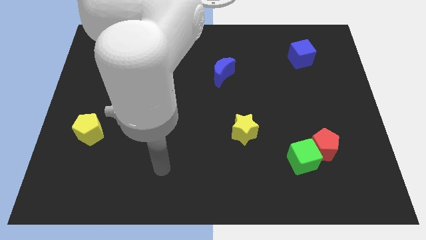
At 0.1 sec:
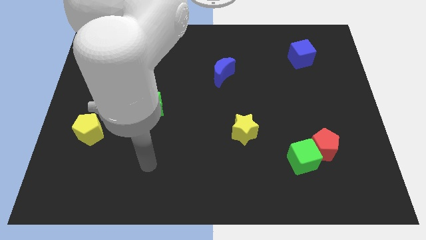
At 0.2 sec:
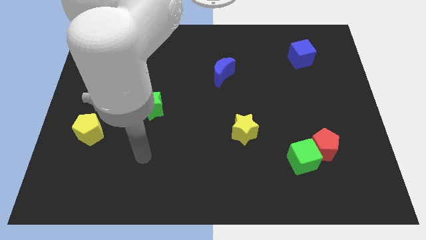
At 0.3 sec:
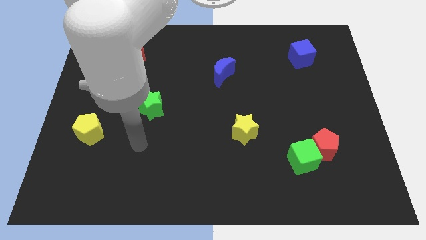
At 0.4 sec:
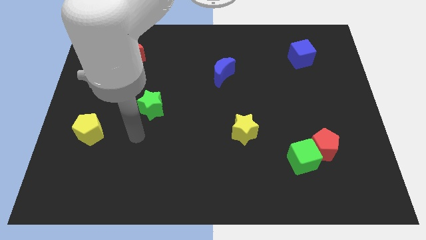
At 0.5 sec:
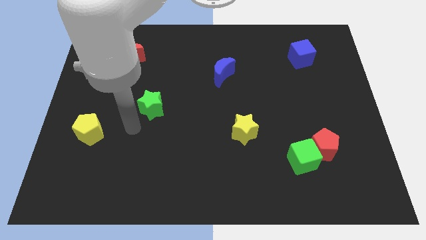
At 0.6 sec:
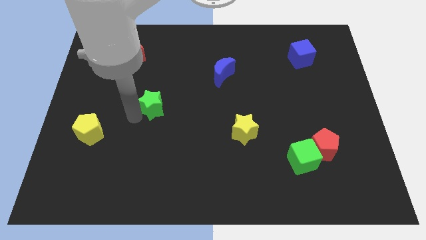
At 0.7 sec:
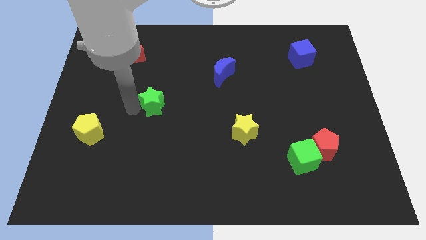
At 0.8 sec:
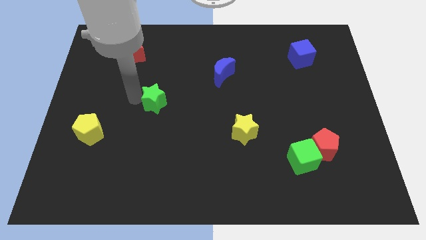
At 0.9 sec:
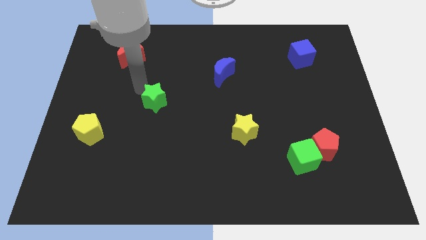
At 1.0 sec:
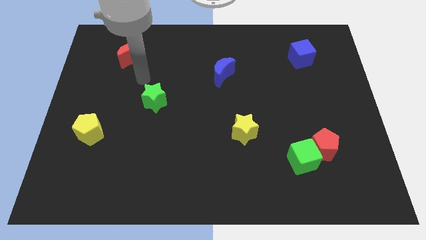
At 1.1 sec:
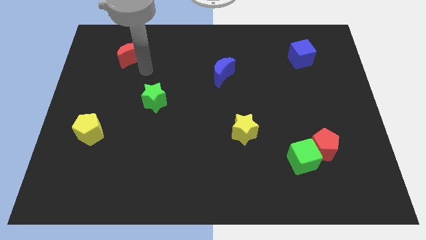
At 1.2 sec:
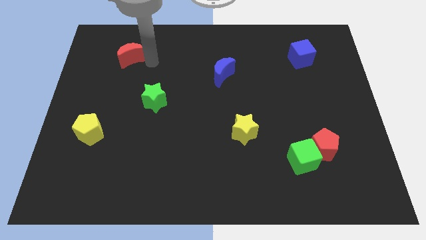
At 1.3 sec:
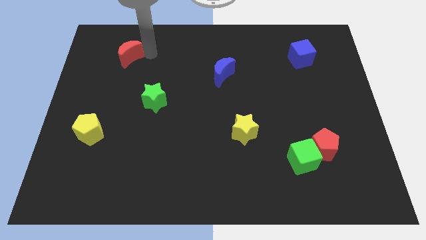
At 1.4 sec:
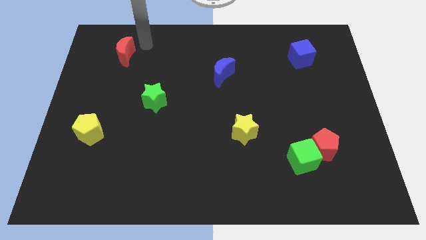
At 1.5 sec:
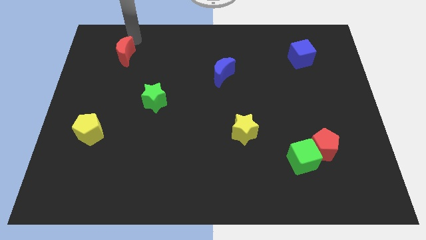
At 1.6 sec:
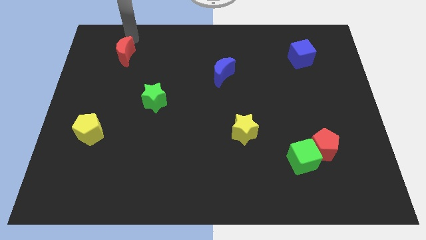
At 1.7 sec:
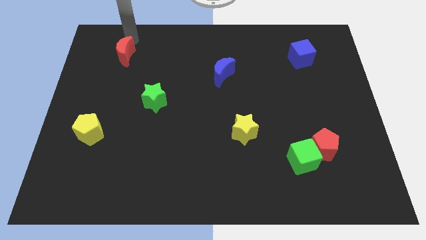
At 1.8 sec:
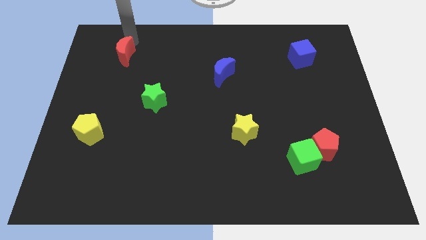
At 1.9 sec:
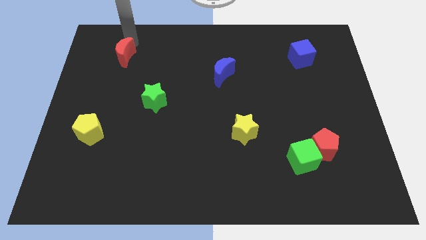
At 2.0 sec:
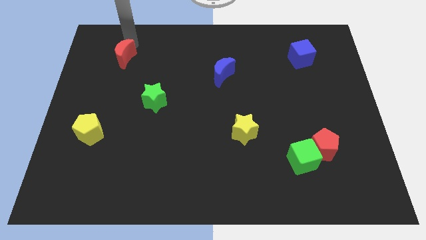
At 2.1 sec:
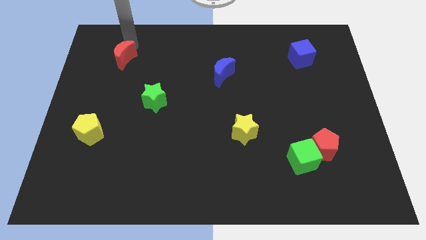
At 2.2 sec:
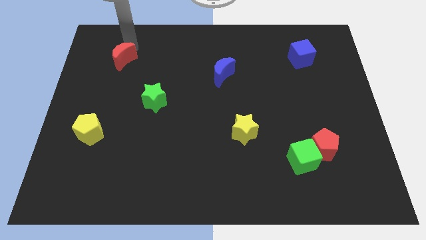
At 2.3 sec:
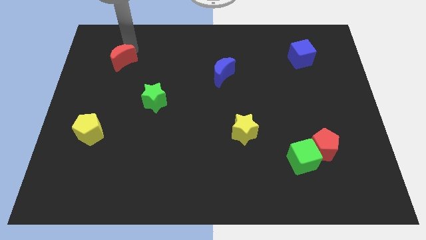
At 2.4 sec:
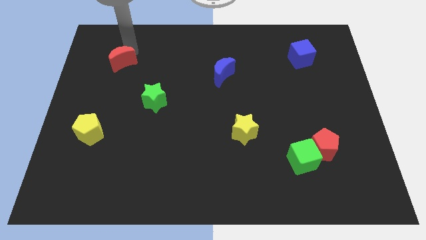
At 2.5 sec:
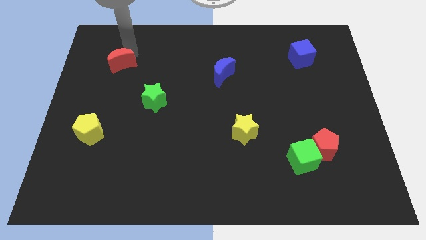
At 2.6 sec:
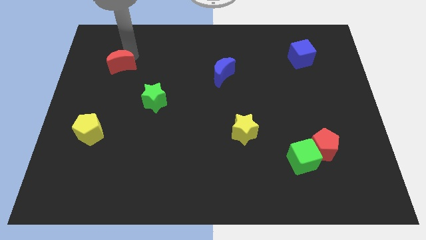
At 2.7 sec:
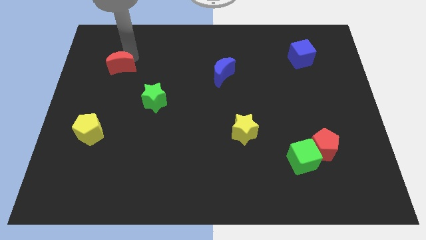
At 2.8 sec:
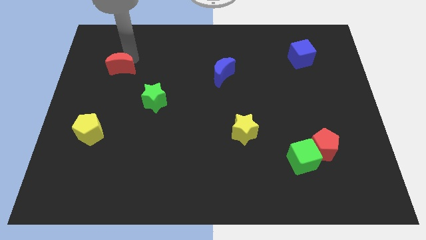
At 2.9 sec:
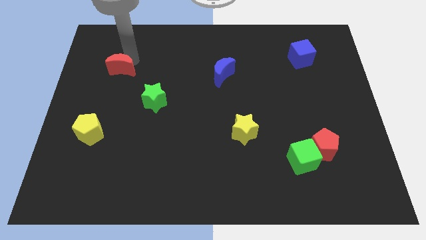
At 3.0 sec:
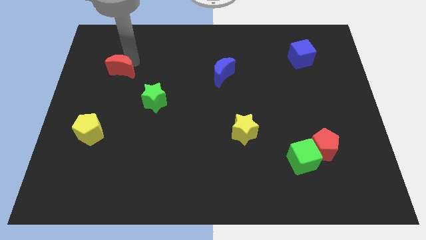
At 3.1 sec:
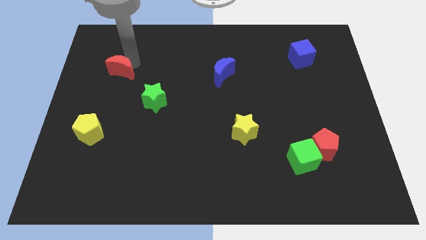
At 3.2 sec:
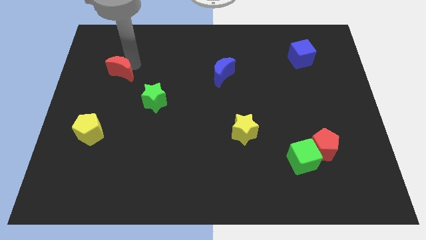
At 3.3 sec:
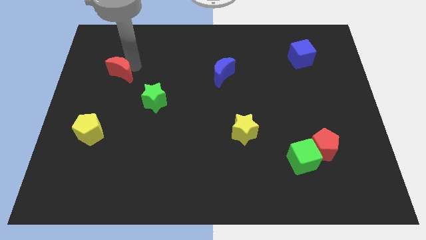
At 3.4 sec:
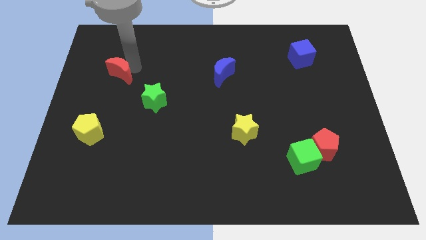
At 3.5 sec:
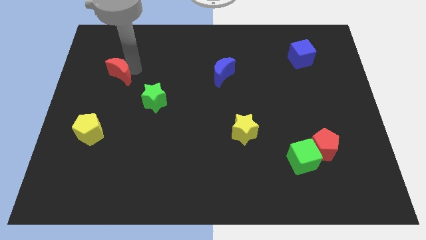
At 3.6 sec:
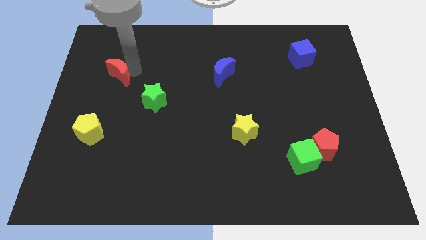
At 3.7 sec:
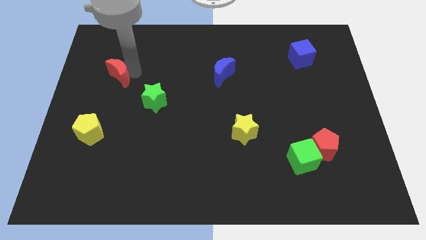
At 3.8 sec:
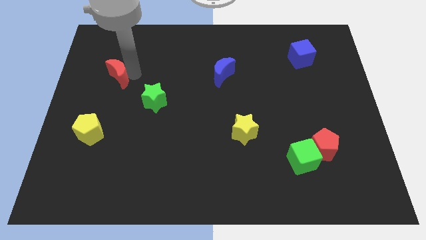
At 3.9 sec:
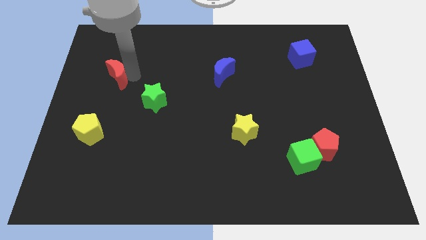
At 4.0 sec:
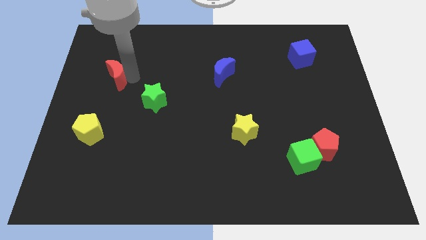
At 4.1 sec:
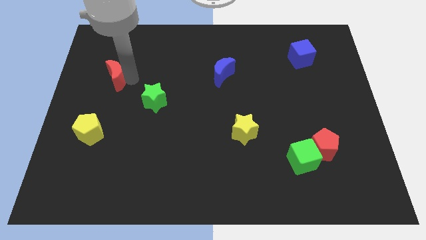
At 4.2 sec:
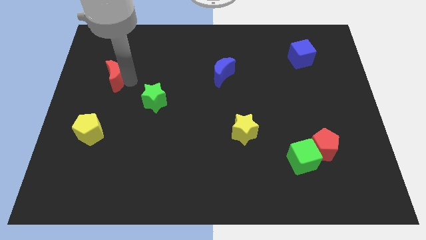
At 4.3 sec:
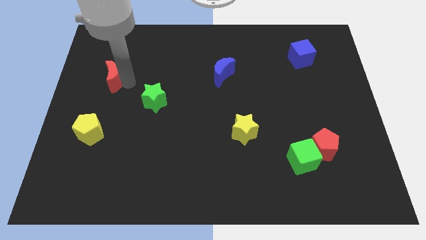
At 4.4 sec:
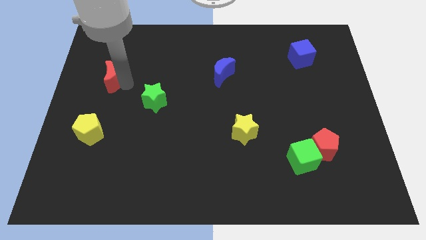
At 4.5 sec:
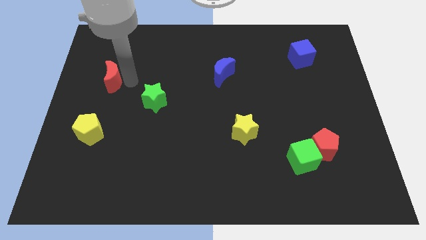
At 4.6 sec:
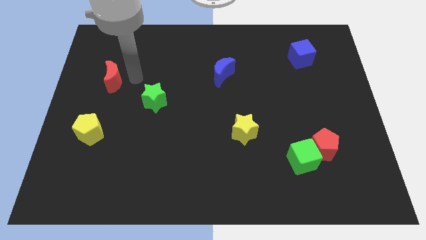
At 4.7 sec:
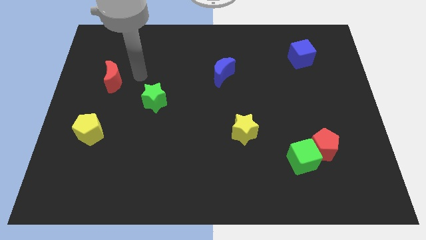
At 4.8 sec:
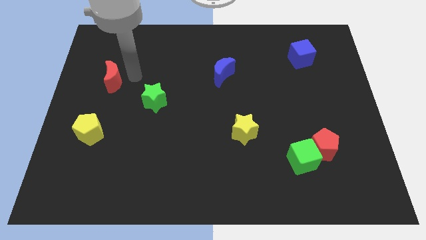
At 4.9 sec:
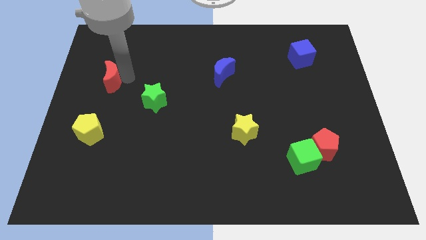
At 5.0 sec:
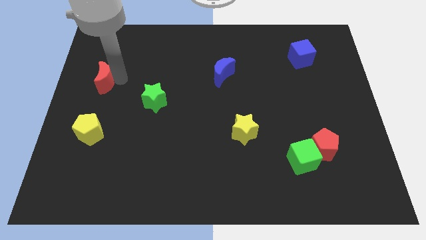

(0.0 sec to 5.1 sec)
put the red moon to the center left

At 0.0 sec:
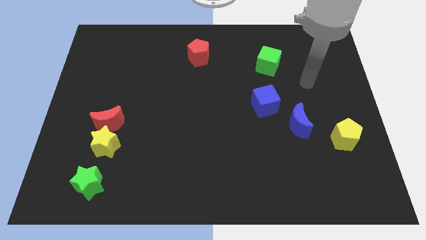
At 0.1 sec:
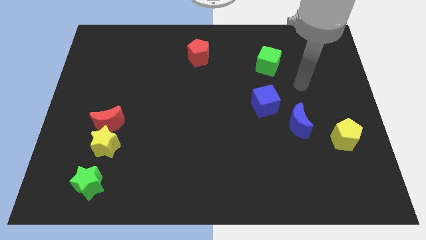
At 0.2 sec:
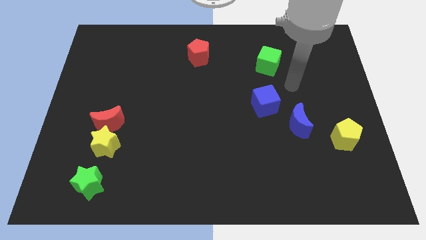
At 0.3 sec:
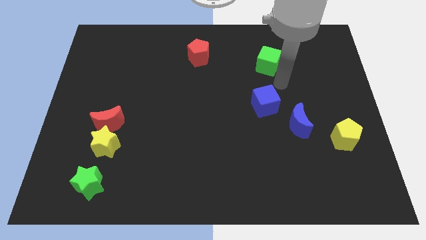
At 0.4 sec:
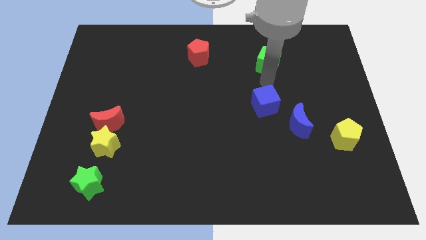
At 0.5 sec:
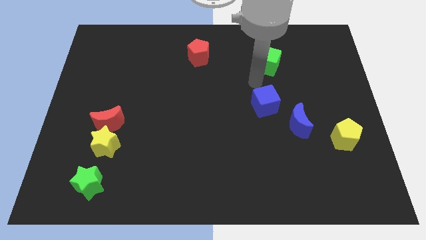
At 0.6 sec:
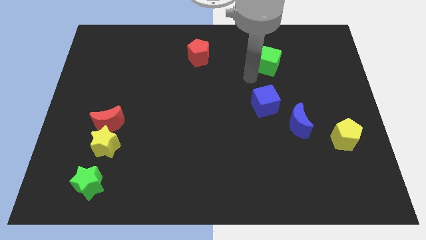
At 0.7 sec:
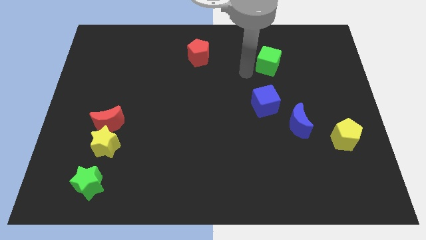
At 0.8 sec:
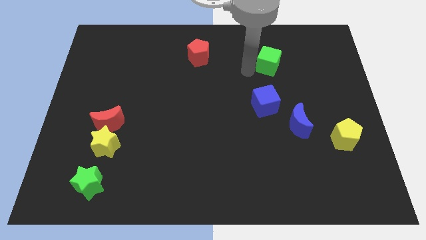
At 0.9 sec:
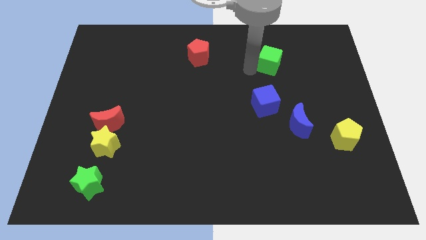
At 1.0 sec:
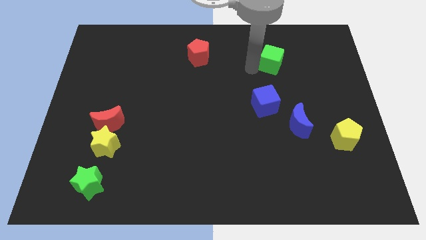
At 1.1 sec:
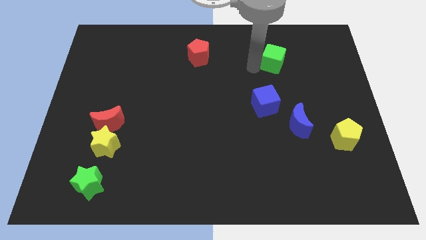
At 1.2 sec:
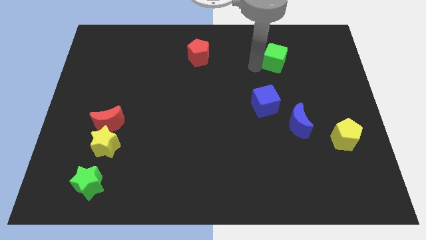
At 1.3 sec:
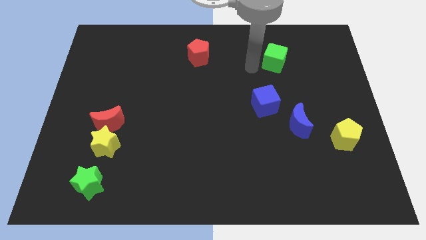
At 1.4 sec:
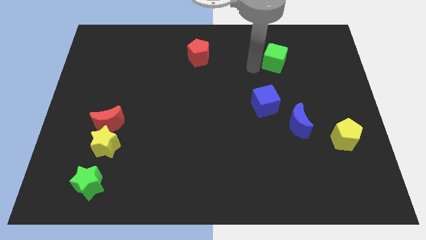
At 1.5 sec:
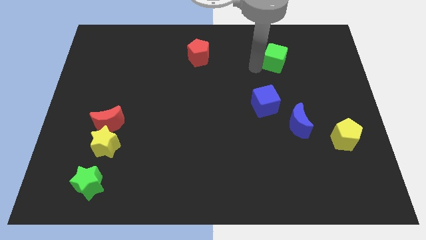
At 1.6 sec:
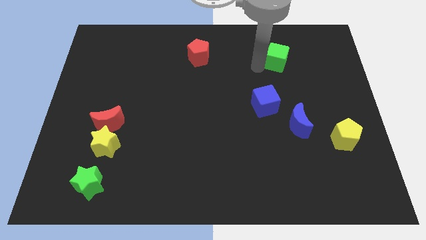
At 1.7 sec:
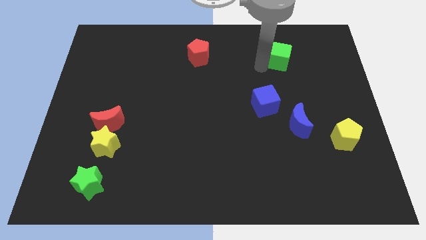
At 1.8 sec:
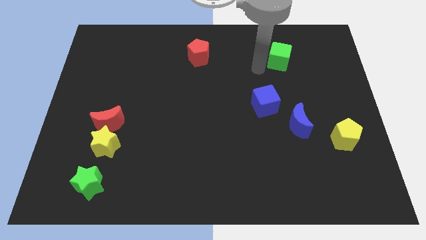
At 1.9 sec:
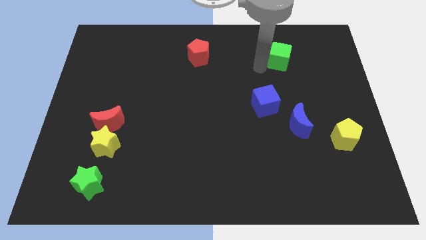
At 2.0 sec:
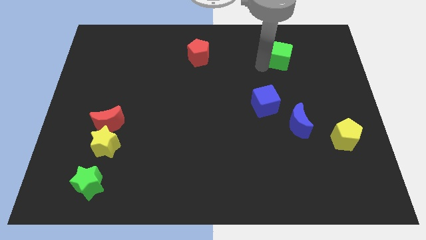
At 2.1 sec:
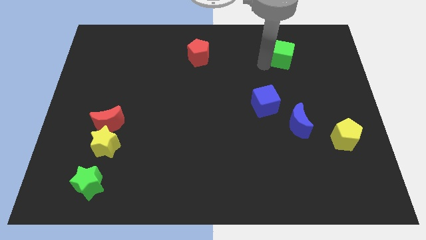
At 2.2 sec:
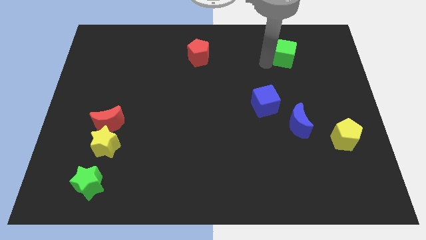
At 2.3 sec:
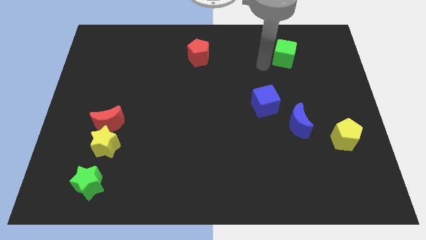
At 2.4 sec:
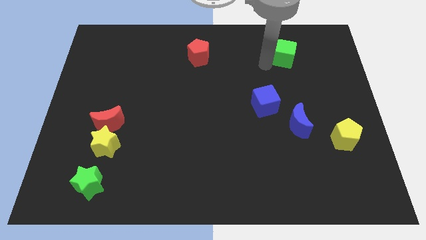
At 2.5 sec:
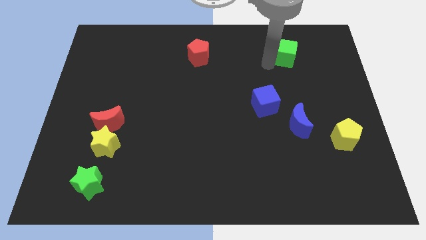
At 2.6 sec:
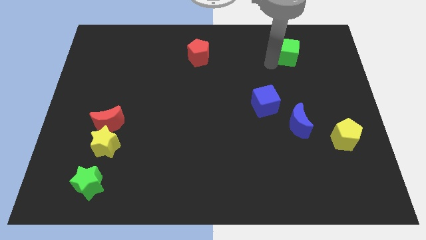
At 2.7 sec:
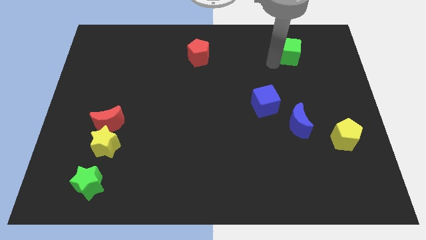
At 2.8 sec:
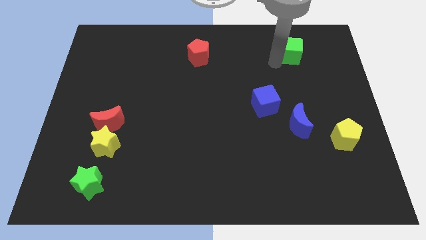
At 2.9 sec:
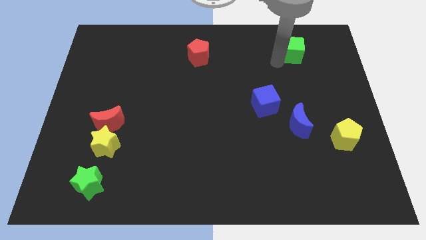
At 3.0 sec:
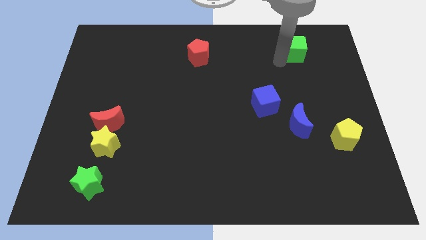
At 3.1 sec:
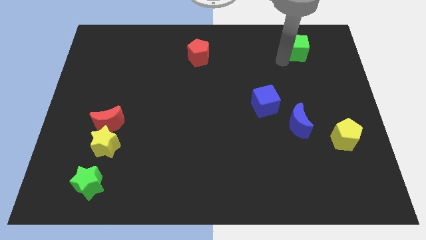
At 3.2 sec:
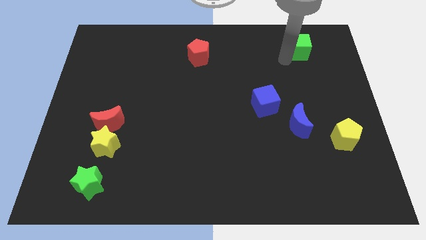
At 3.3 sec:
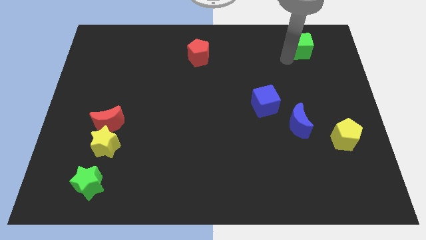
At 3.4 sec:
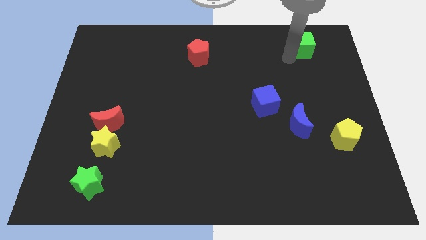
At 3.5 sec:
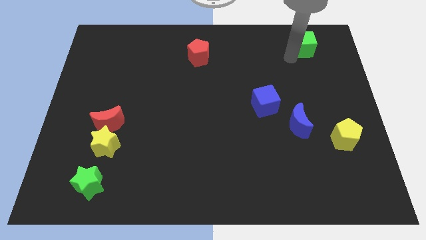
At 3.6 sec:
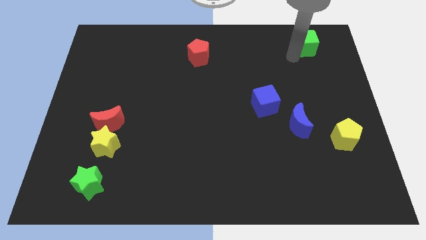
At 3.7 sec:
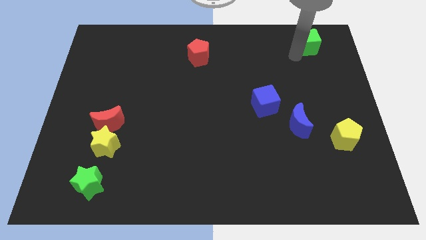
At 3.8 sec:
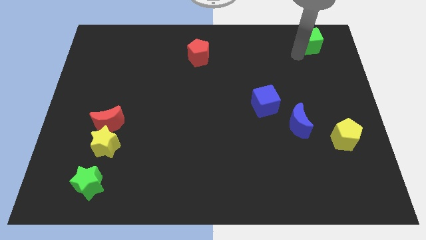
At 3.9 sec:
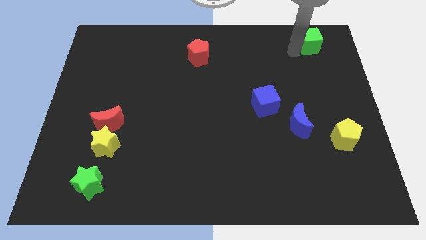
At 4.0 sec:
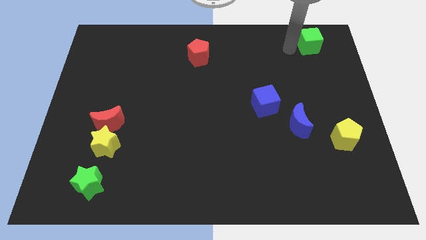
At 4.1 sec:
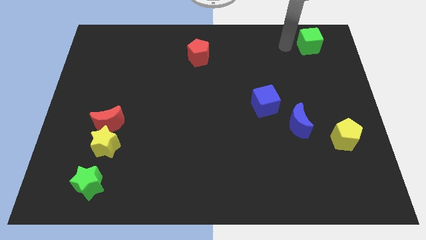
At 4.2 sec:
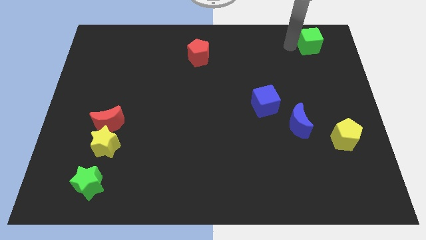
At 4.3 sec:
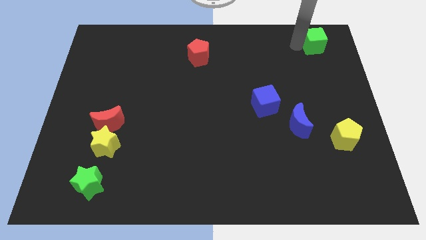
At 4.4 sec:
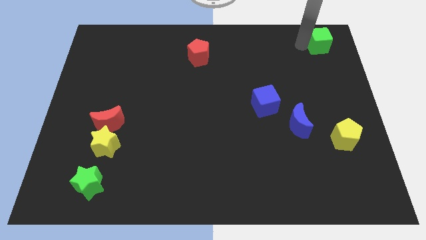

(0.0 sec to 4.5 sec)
put the green cube to the top right
